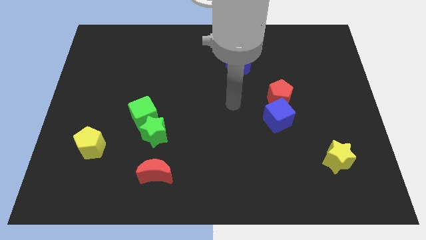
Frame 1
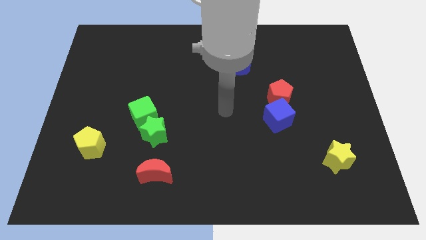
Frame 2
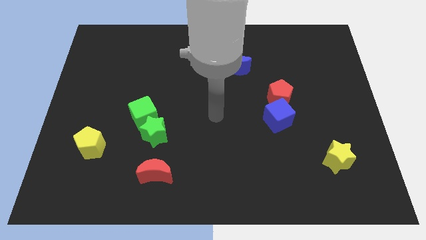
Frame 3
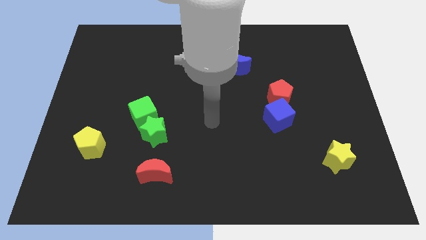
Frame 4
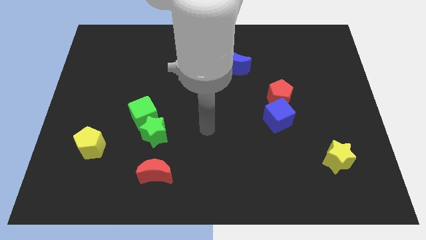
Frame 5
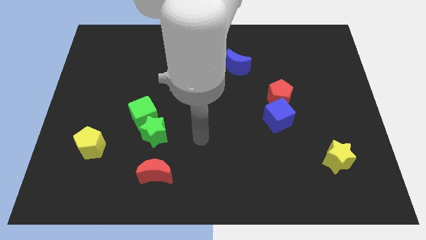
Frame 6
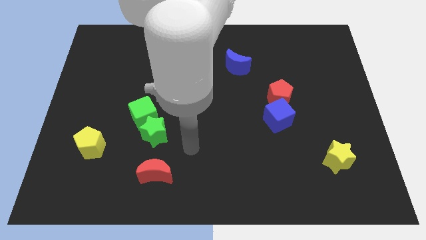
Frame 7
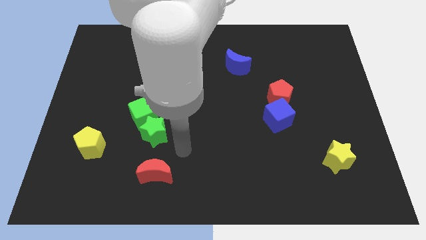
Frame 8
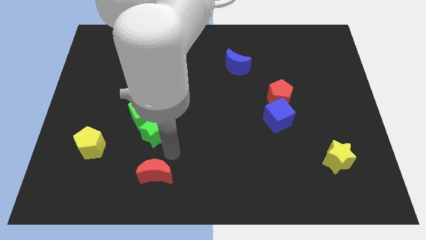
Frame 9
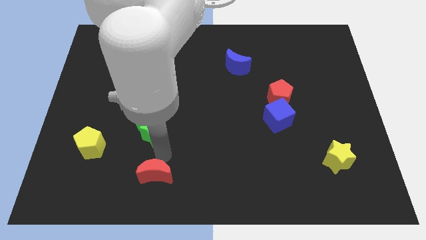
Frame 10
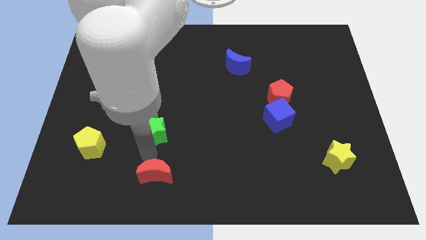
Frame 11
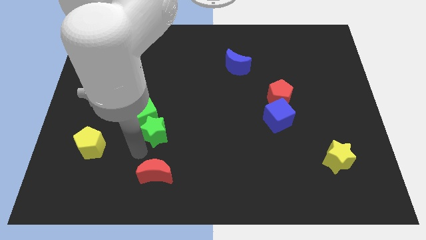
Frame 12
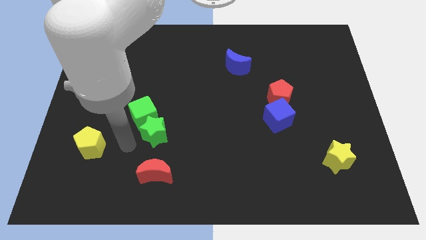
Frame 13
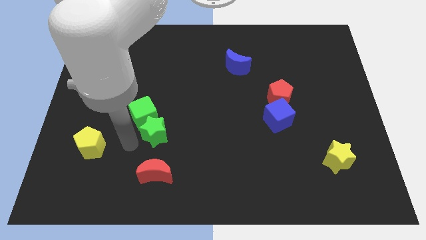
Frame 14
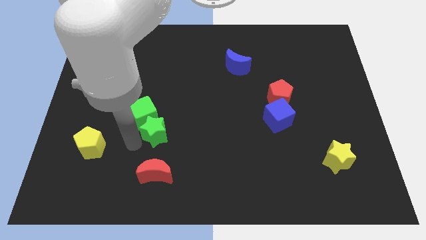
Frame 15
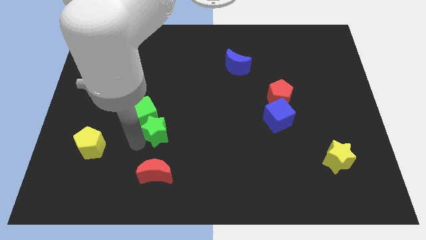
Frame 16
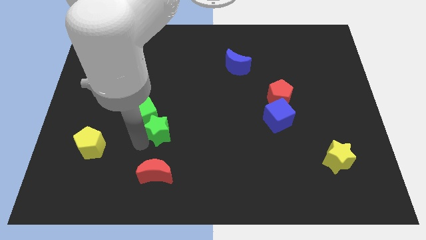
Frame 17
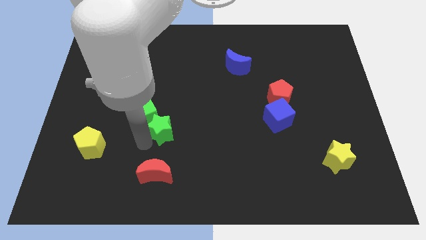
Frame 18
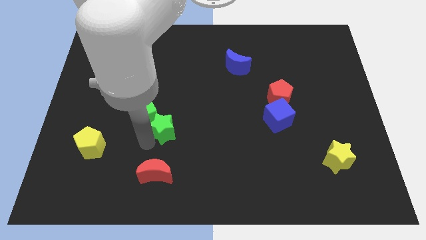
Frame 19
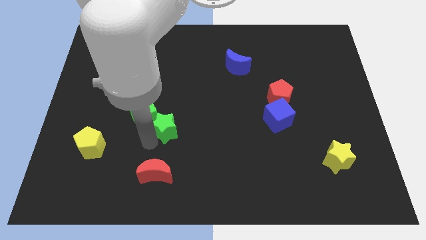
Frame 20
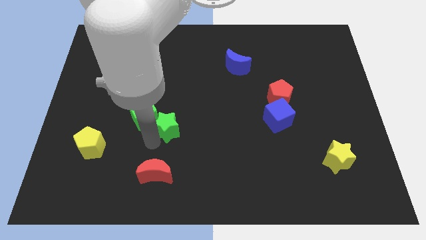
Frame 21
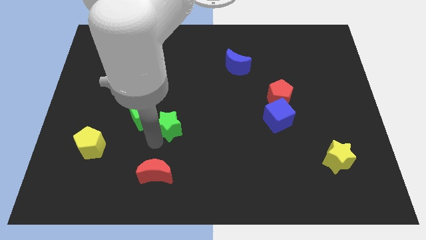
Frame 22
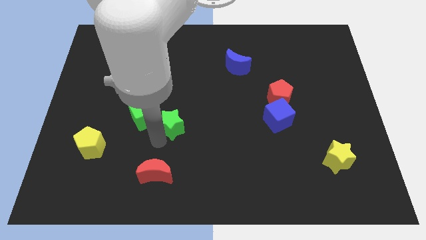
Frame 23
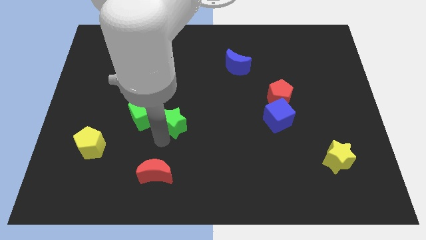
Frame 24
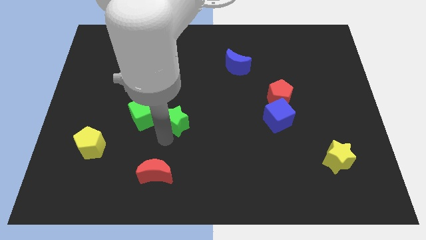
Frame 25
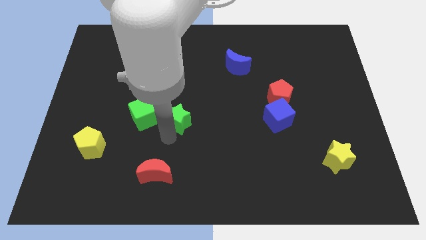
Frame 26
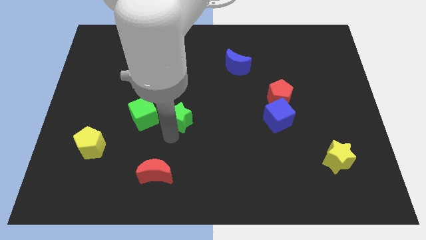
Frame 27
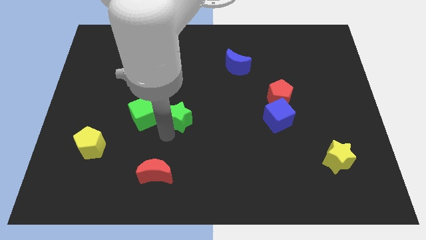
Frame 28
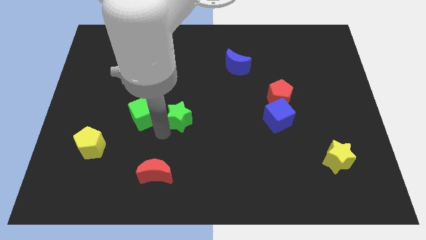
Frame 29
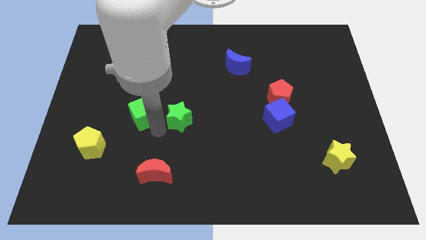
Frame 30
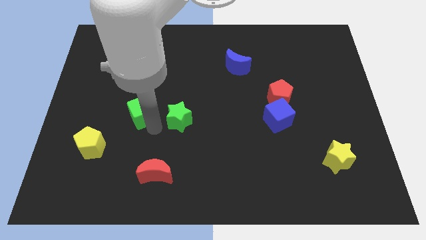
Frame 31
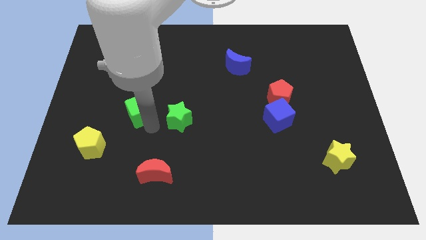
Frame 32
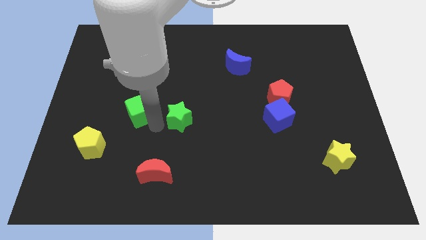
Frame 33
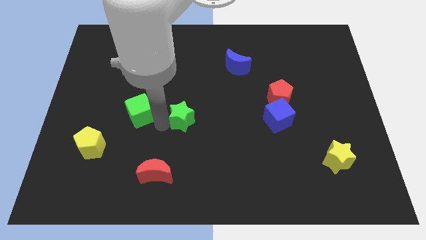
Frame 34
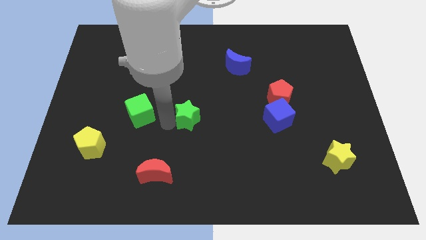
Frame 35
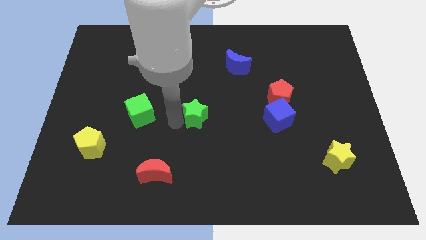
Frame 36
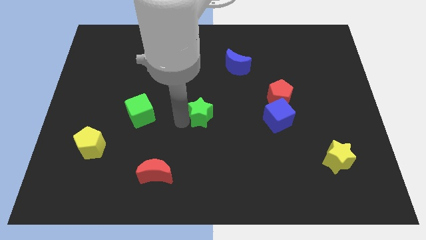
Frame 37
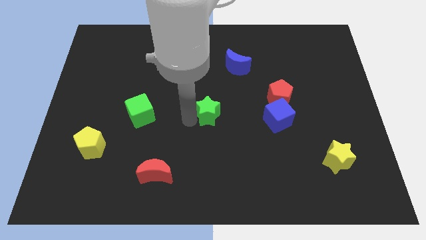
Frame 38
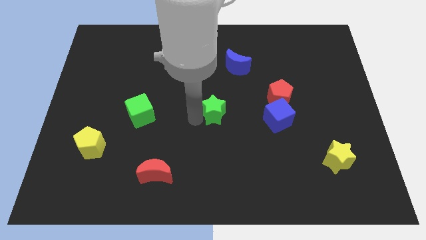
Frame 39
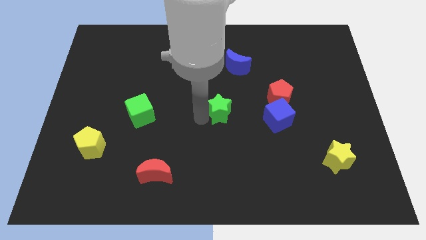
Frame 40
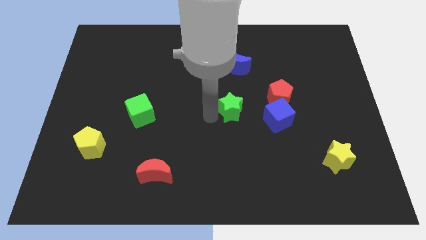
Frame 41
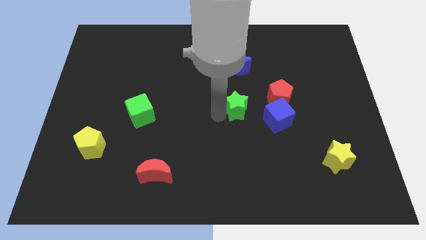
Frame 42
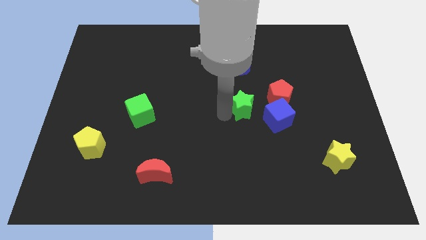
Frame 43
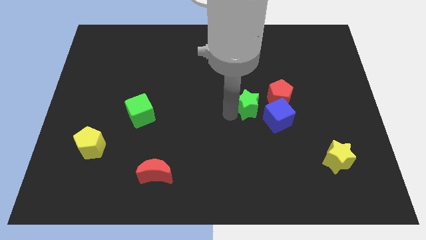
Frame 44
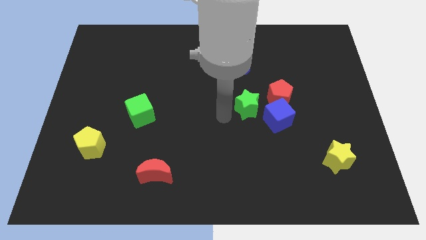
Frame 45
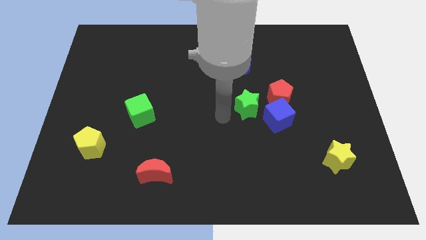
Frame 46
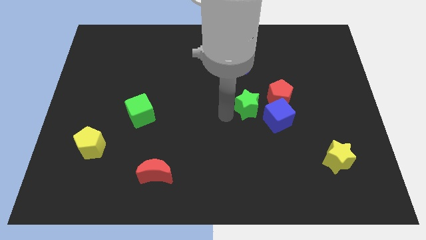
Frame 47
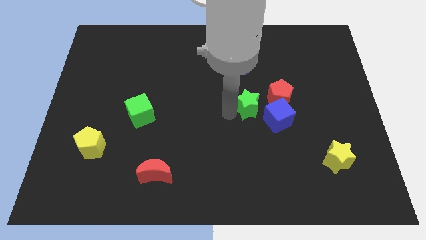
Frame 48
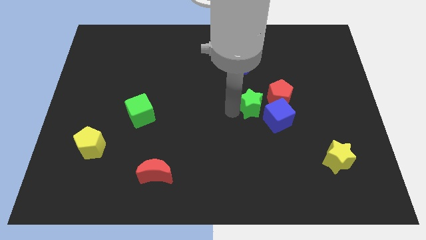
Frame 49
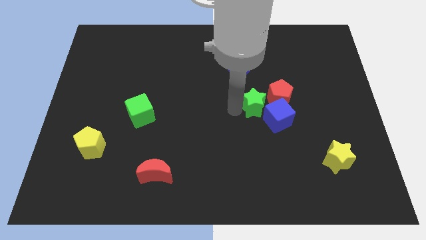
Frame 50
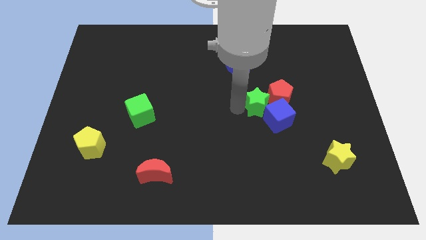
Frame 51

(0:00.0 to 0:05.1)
slide the green star towards the red pentagon

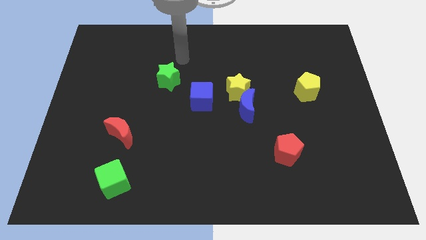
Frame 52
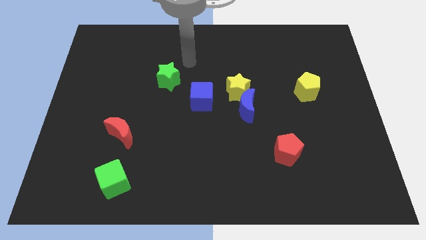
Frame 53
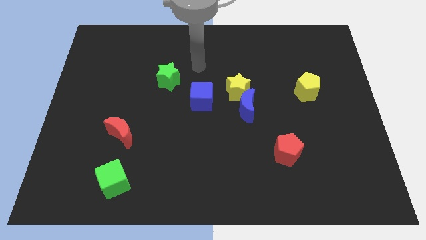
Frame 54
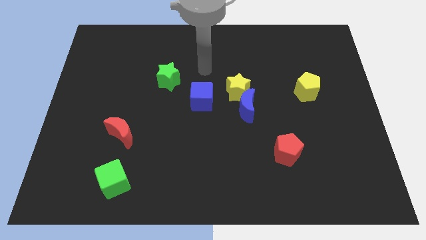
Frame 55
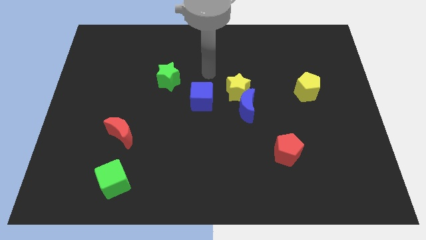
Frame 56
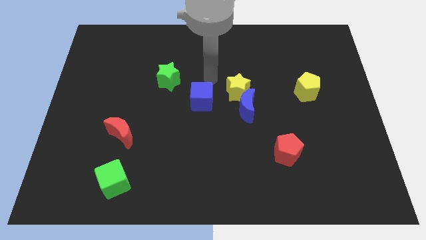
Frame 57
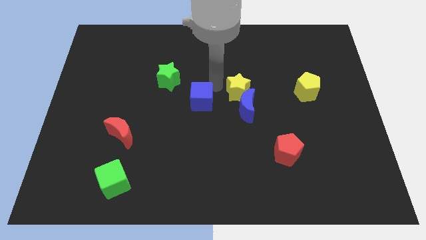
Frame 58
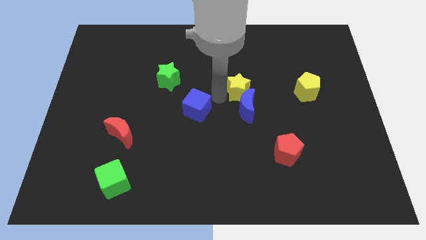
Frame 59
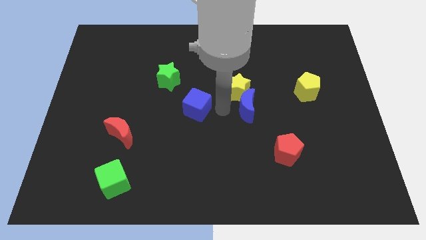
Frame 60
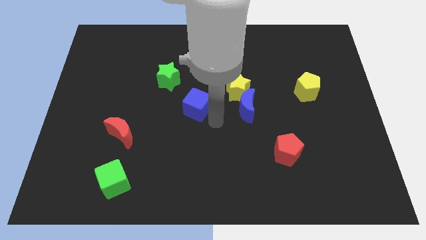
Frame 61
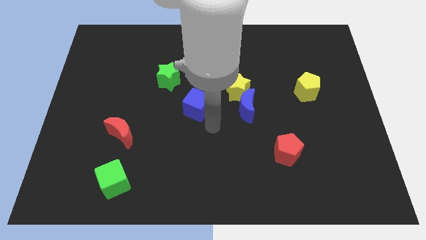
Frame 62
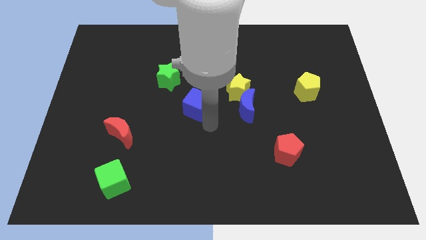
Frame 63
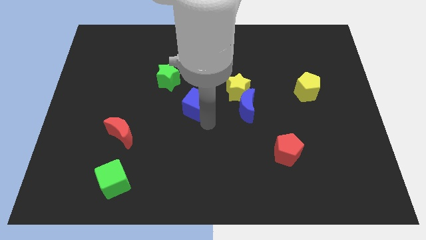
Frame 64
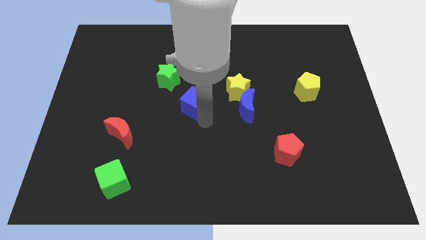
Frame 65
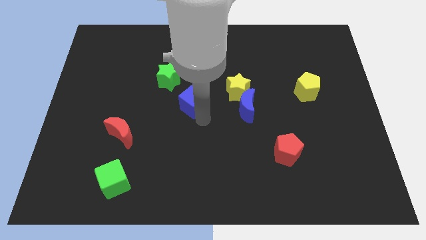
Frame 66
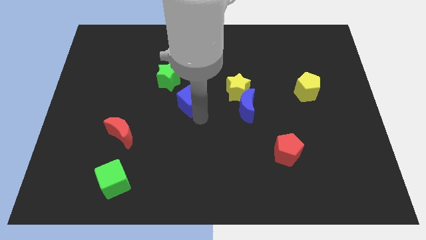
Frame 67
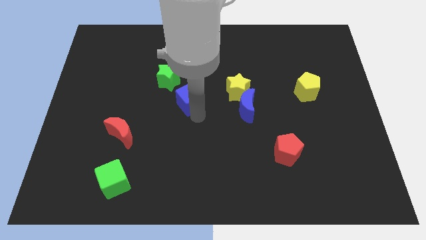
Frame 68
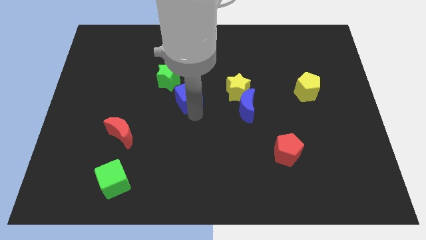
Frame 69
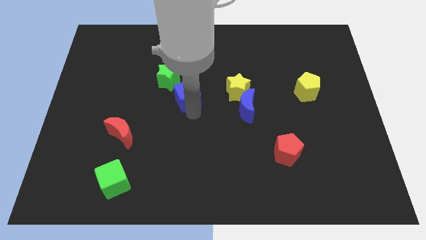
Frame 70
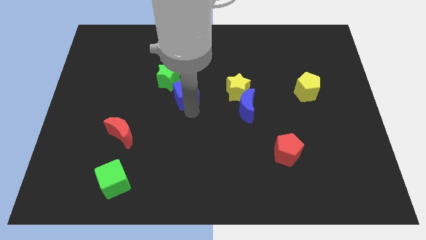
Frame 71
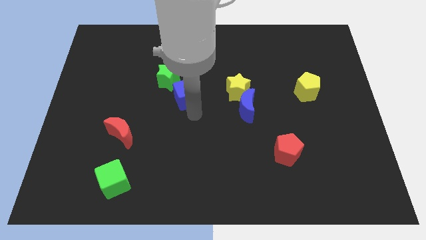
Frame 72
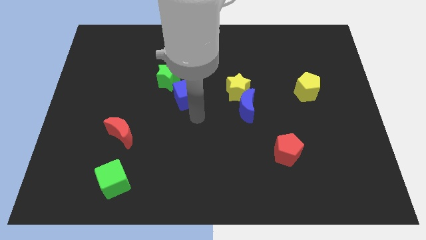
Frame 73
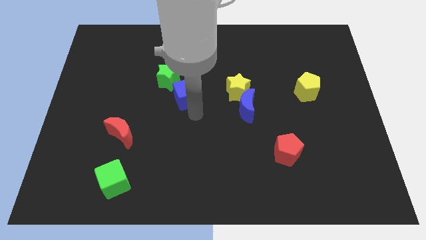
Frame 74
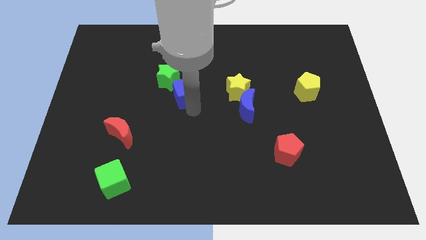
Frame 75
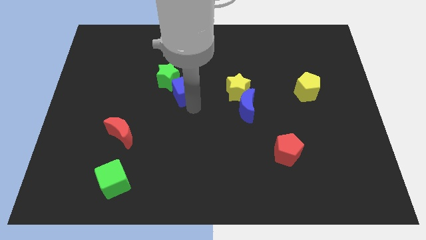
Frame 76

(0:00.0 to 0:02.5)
put the blue cube close to the green star
